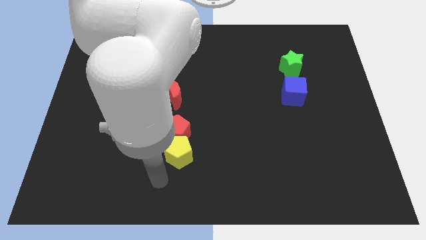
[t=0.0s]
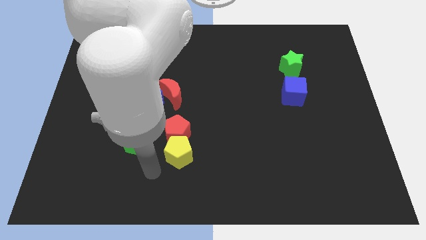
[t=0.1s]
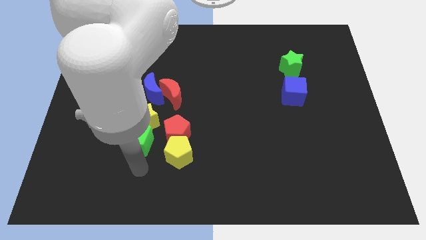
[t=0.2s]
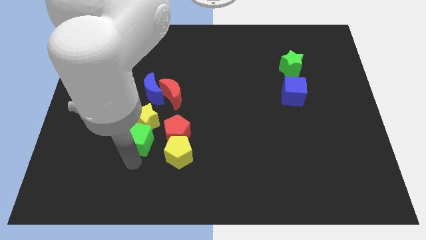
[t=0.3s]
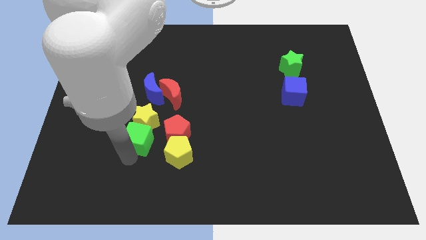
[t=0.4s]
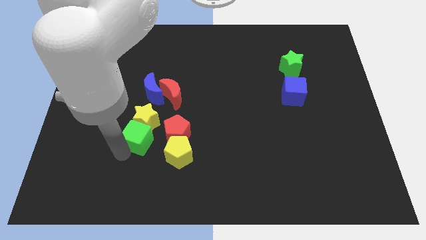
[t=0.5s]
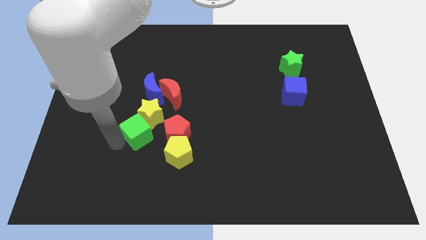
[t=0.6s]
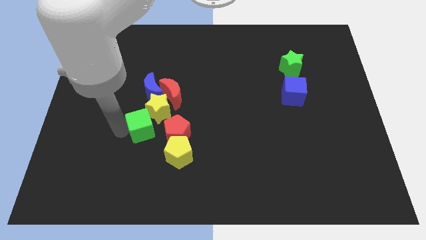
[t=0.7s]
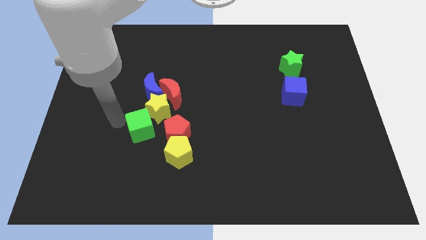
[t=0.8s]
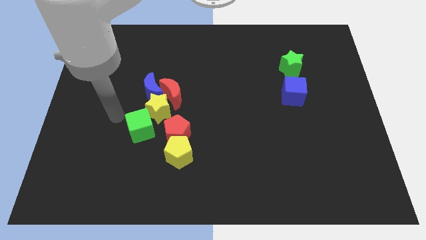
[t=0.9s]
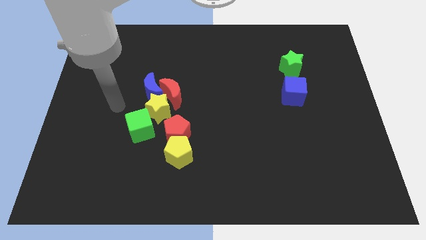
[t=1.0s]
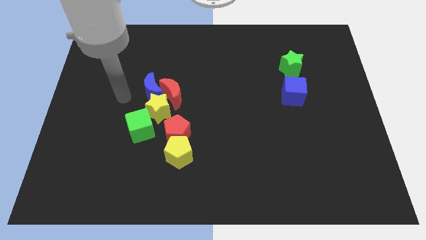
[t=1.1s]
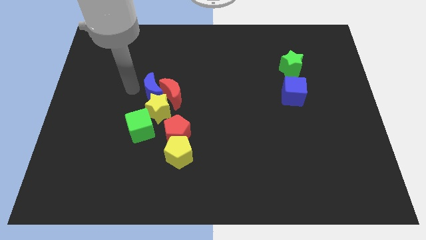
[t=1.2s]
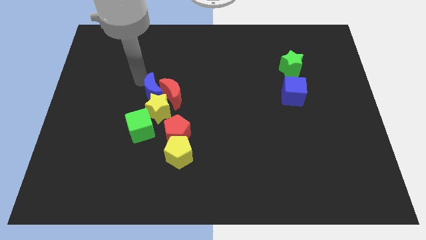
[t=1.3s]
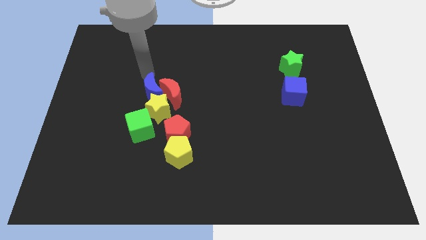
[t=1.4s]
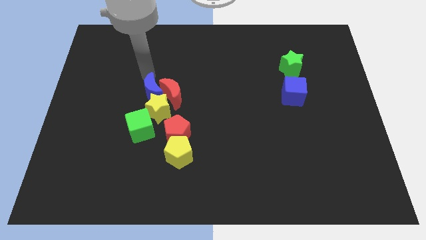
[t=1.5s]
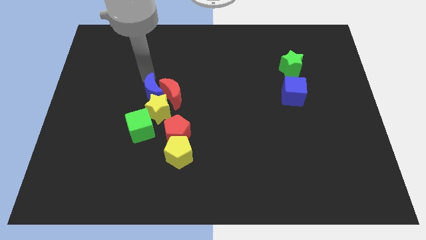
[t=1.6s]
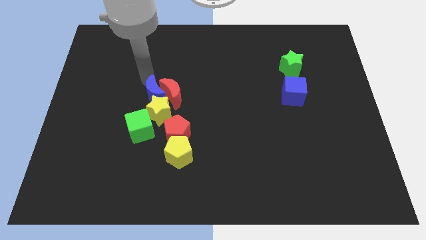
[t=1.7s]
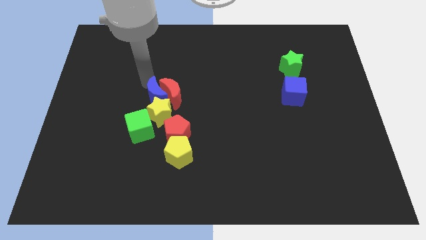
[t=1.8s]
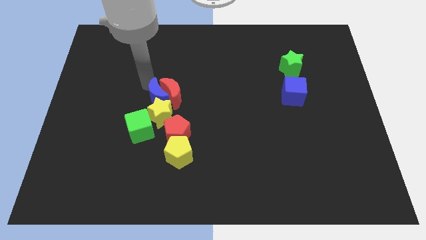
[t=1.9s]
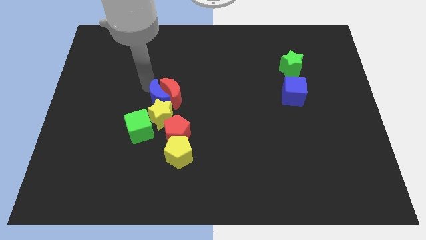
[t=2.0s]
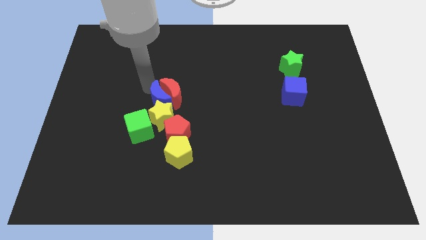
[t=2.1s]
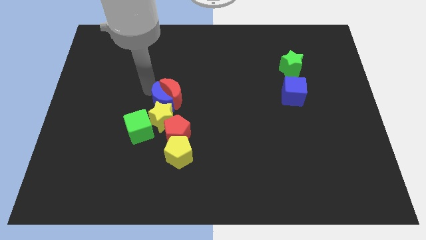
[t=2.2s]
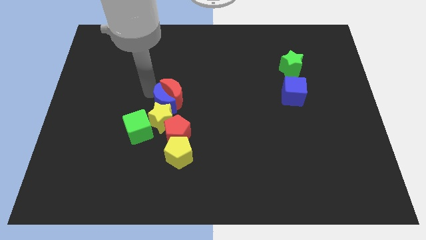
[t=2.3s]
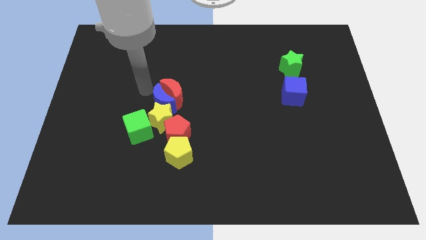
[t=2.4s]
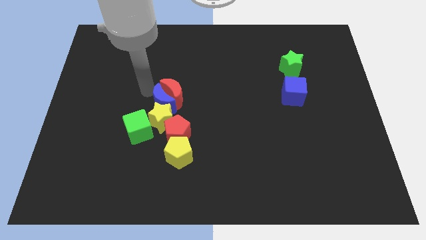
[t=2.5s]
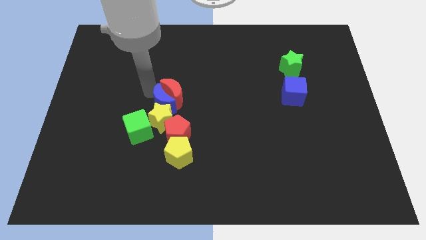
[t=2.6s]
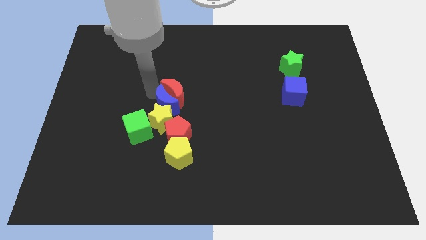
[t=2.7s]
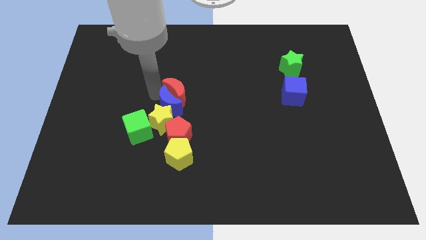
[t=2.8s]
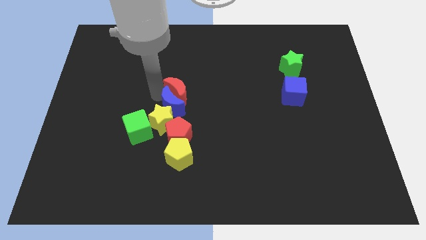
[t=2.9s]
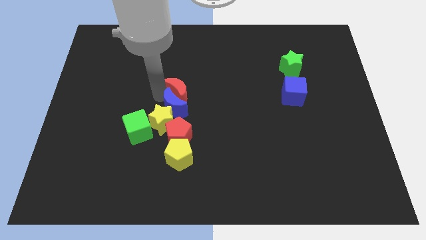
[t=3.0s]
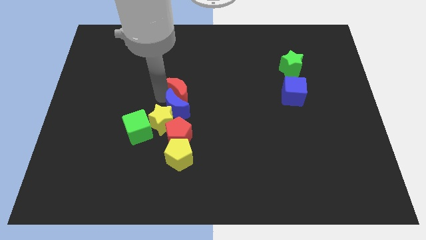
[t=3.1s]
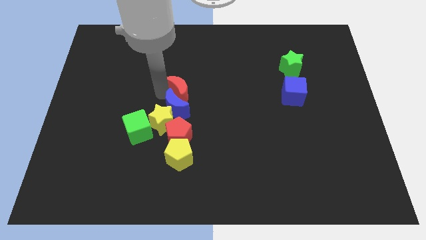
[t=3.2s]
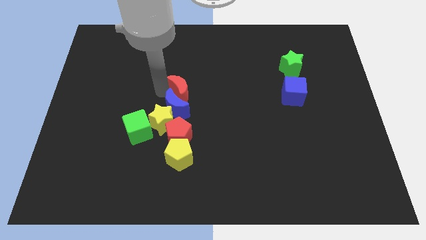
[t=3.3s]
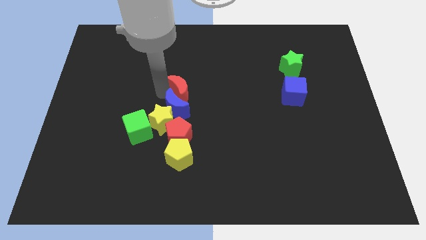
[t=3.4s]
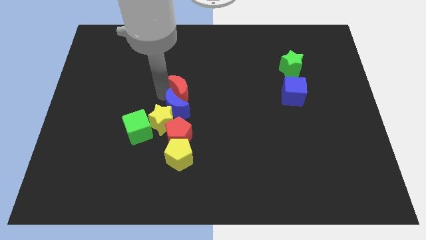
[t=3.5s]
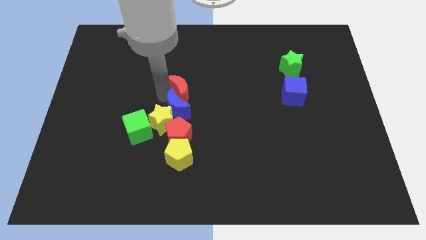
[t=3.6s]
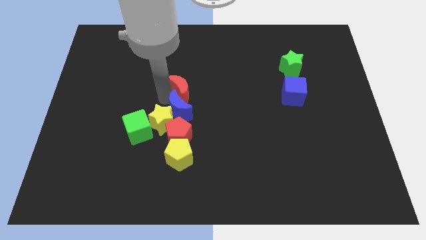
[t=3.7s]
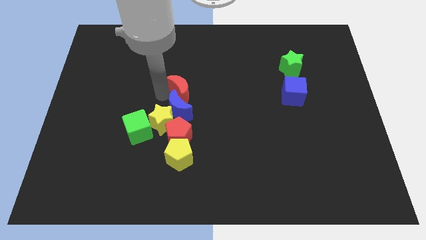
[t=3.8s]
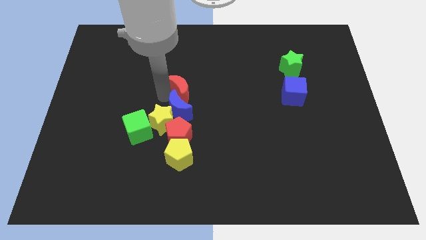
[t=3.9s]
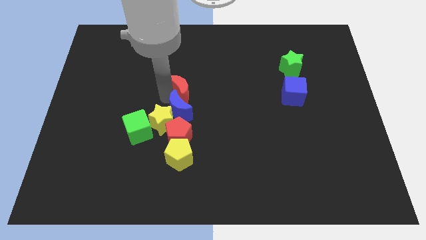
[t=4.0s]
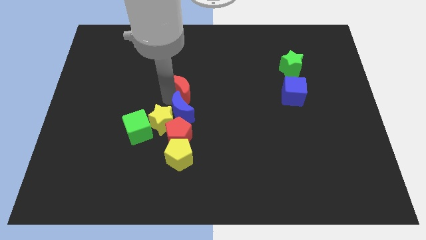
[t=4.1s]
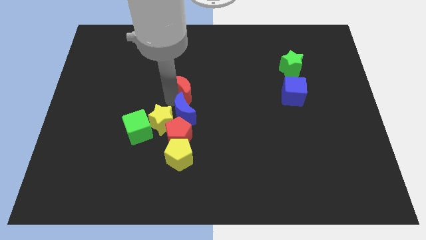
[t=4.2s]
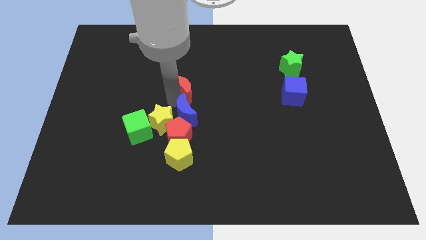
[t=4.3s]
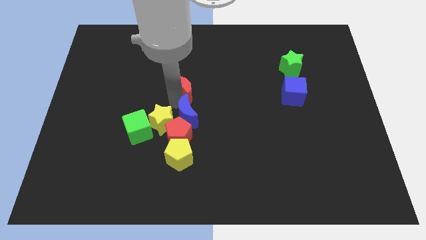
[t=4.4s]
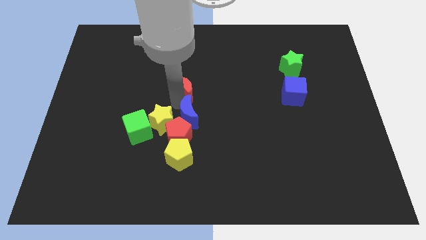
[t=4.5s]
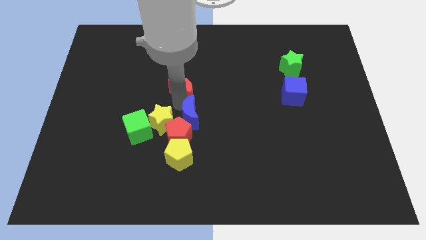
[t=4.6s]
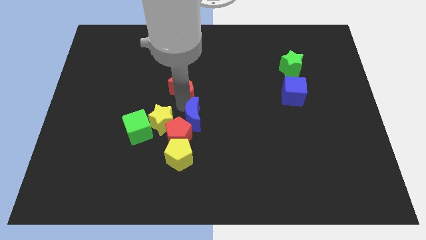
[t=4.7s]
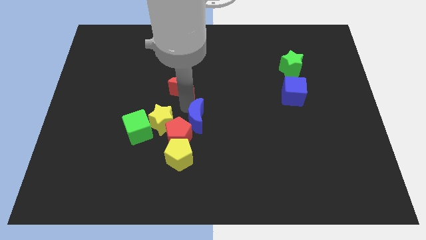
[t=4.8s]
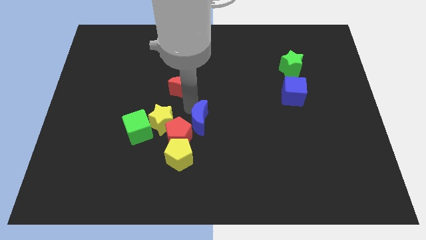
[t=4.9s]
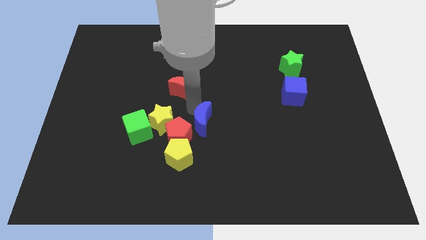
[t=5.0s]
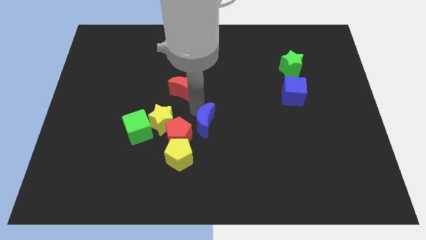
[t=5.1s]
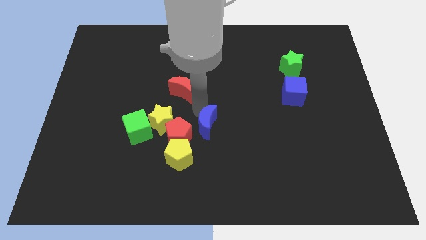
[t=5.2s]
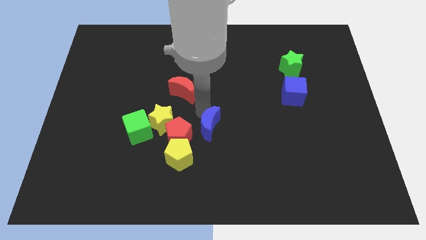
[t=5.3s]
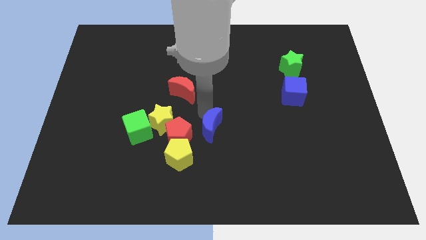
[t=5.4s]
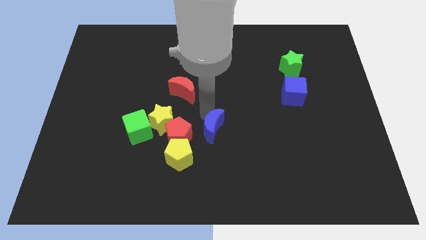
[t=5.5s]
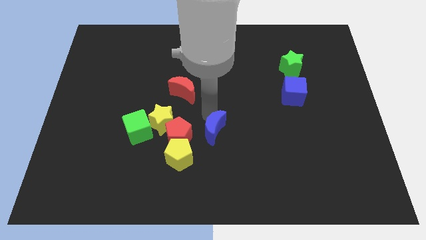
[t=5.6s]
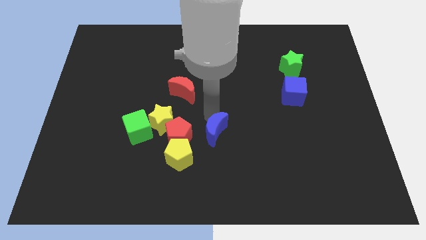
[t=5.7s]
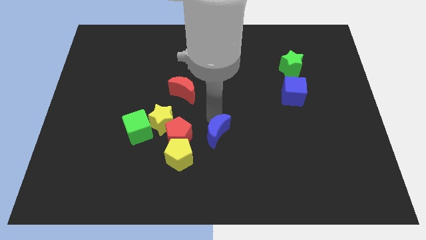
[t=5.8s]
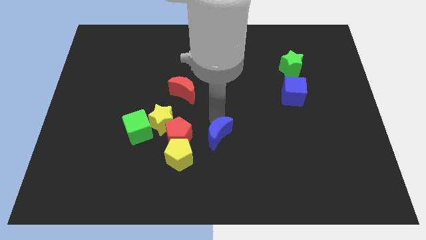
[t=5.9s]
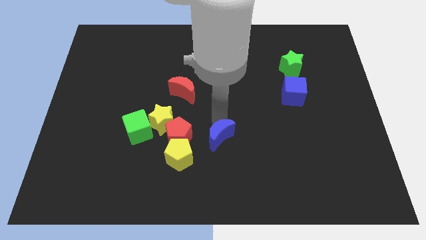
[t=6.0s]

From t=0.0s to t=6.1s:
move the blue moon downwards and then to the right

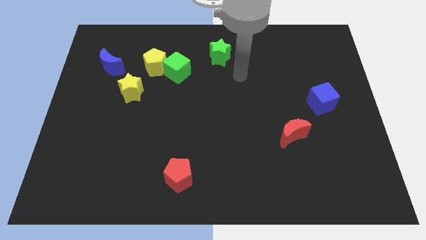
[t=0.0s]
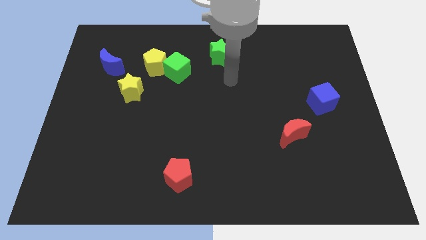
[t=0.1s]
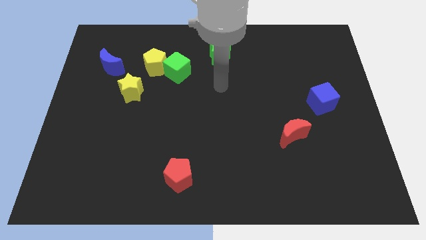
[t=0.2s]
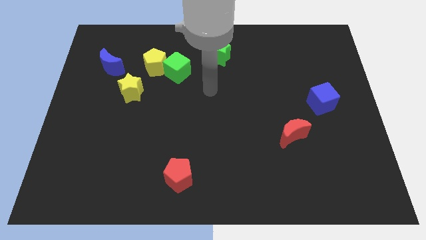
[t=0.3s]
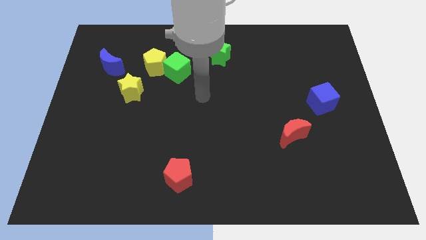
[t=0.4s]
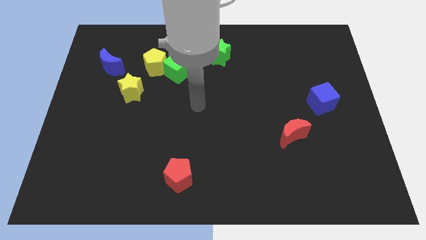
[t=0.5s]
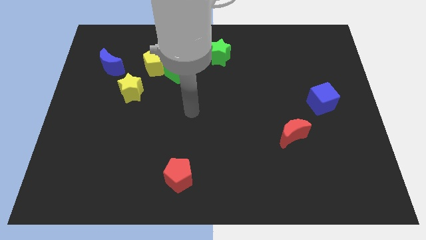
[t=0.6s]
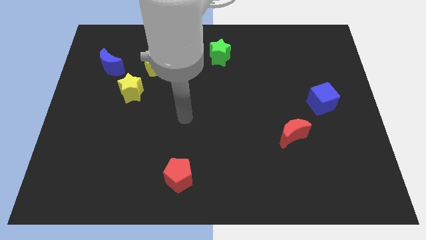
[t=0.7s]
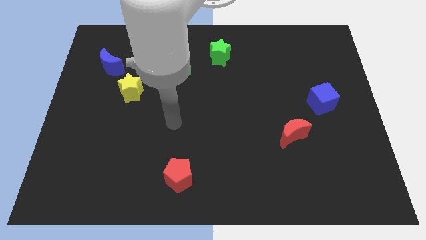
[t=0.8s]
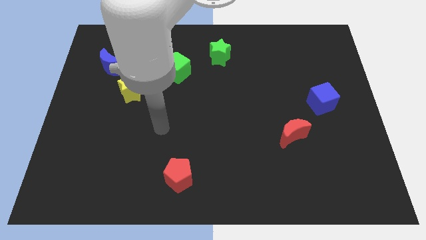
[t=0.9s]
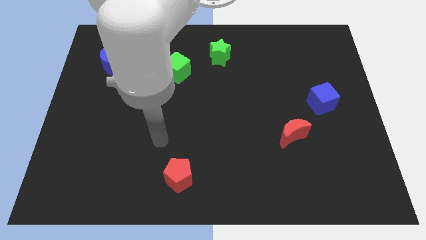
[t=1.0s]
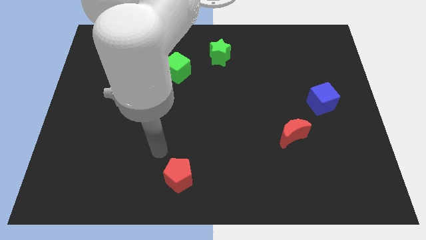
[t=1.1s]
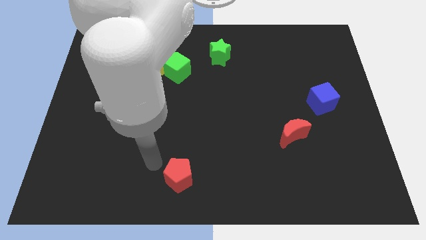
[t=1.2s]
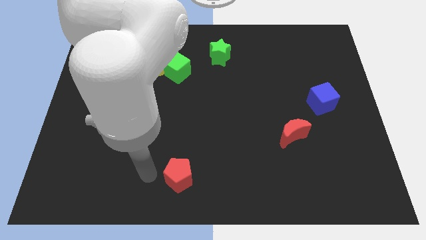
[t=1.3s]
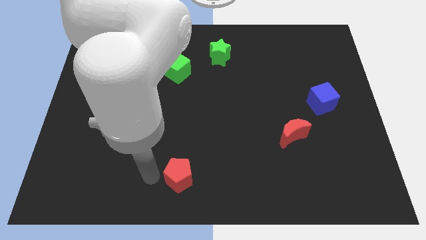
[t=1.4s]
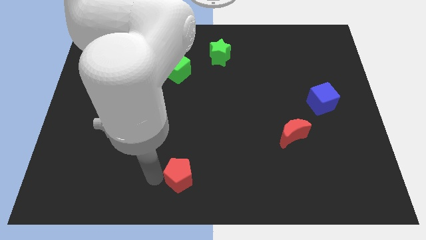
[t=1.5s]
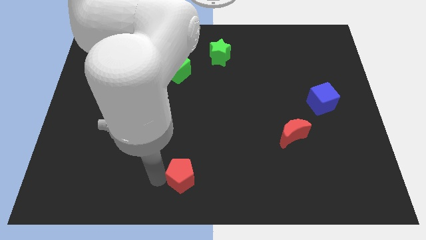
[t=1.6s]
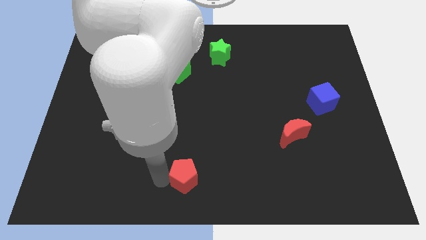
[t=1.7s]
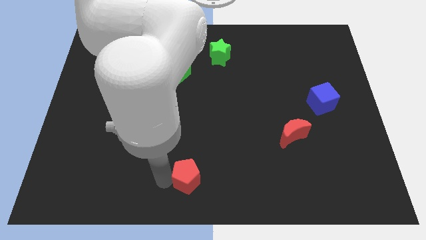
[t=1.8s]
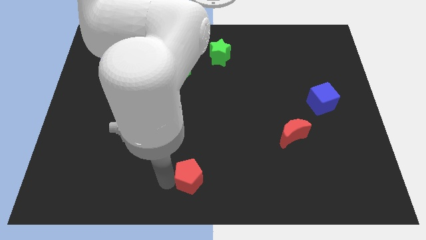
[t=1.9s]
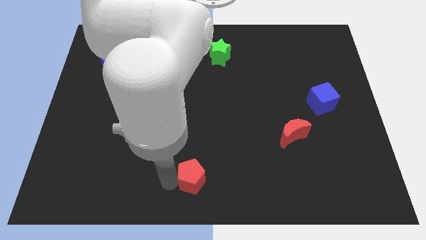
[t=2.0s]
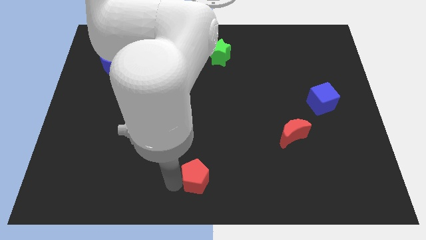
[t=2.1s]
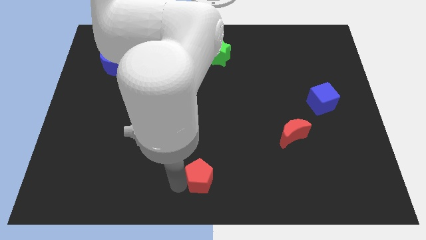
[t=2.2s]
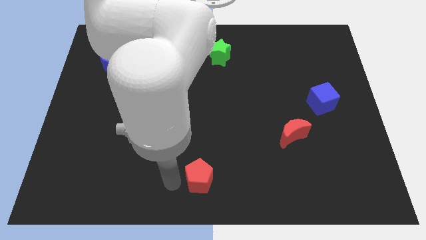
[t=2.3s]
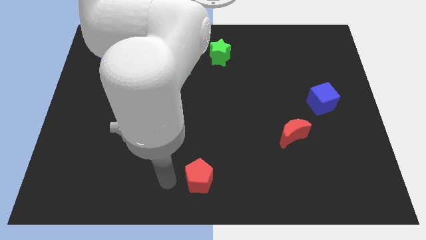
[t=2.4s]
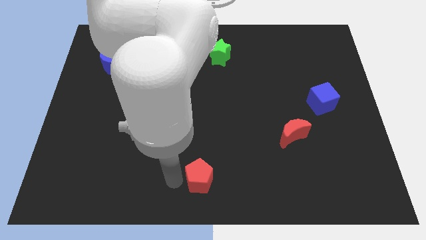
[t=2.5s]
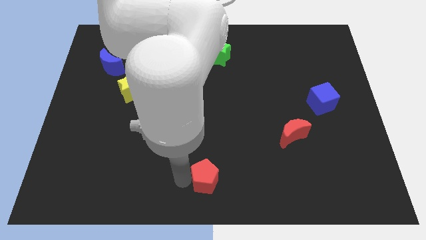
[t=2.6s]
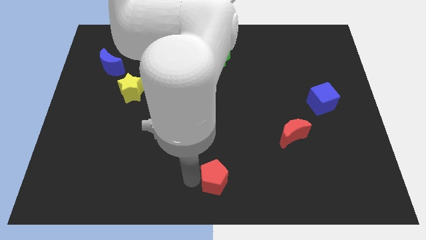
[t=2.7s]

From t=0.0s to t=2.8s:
push the red pentagon a little right
